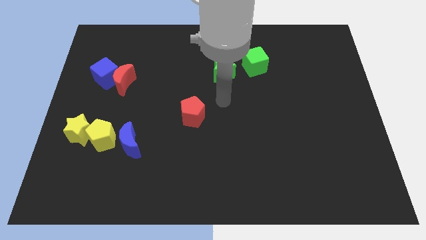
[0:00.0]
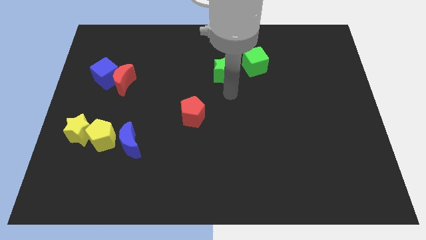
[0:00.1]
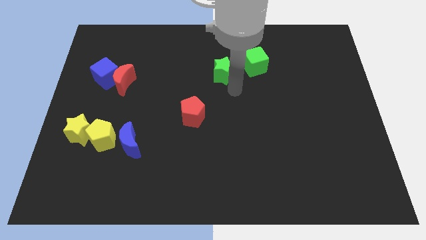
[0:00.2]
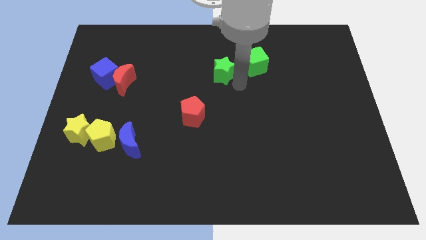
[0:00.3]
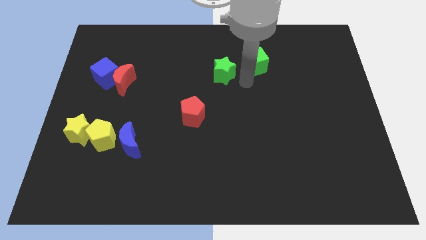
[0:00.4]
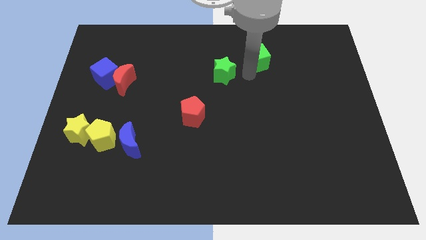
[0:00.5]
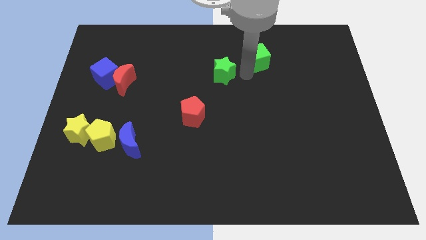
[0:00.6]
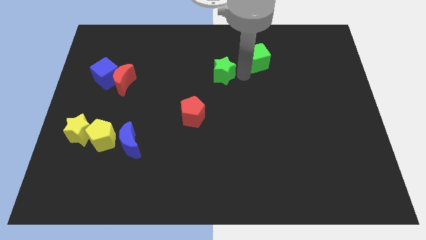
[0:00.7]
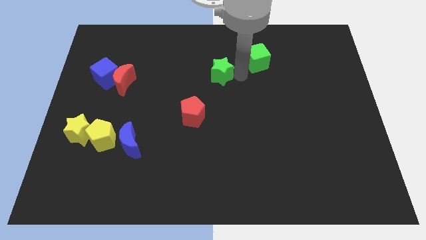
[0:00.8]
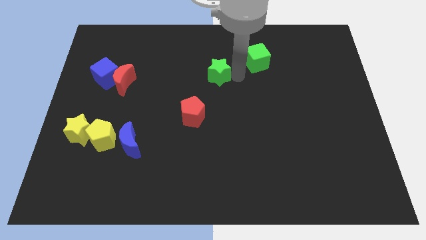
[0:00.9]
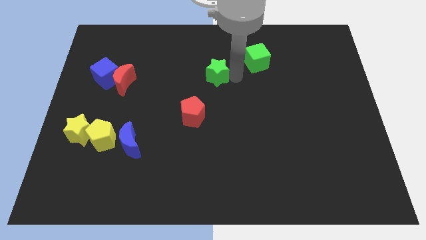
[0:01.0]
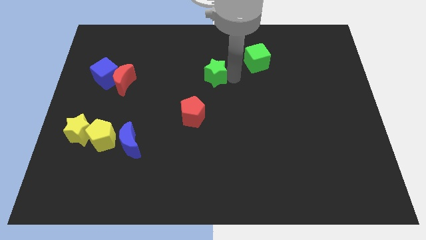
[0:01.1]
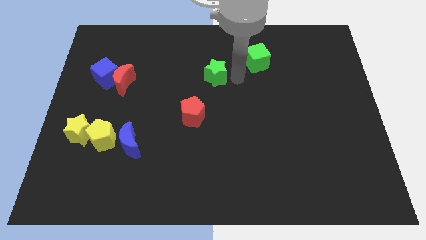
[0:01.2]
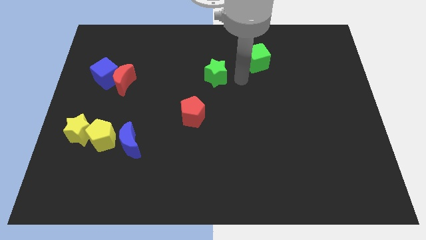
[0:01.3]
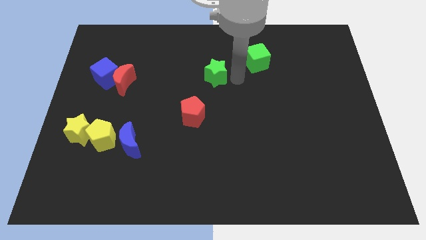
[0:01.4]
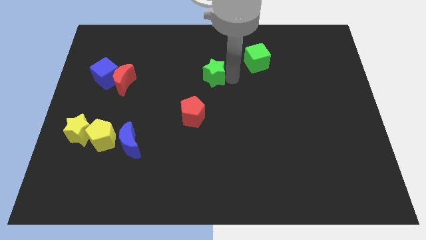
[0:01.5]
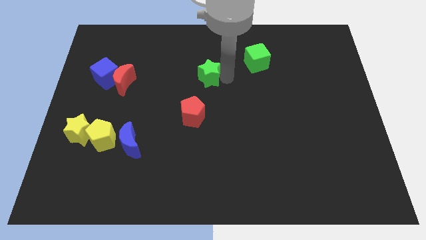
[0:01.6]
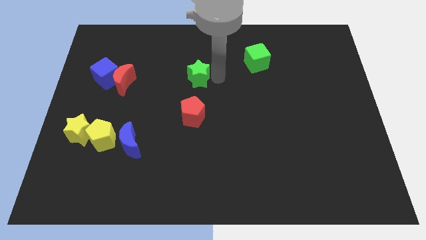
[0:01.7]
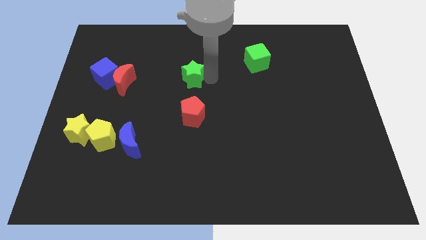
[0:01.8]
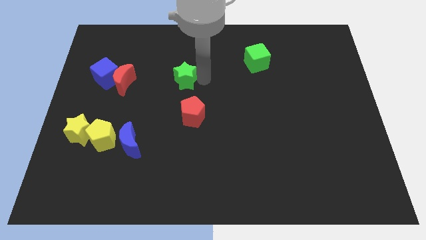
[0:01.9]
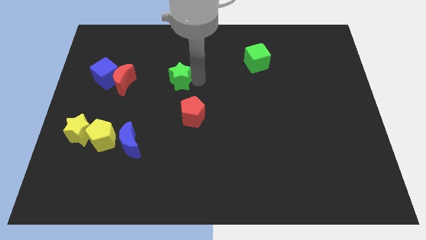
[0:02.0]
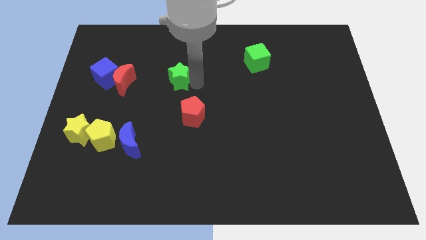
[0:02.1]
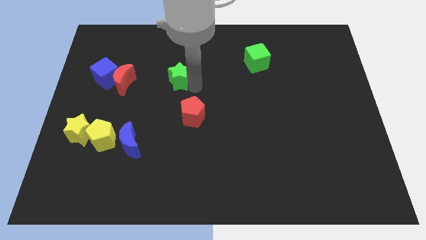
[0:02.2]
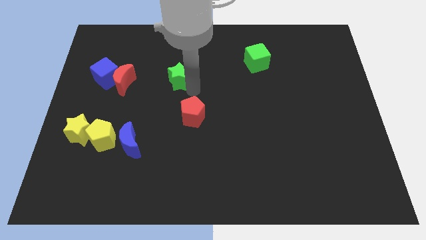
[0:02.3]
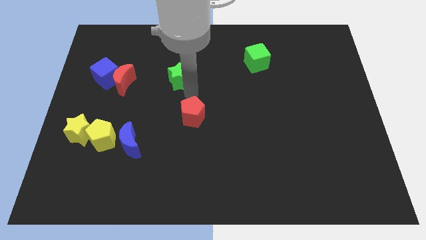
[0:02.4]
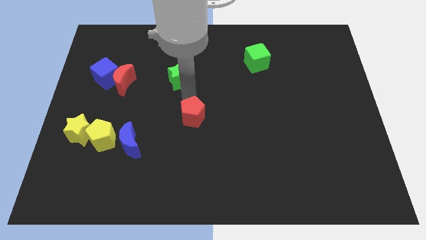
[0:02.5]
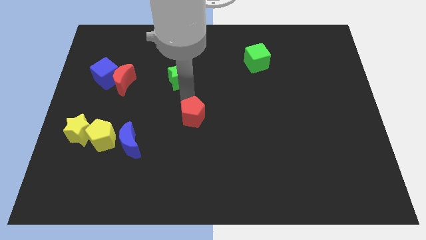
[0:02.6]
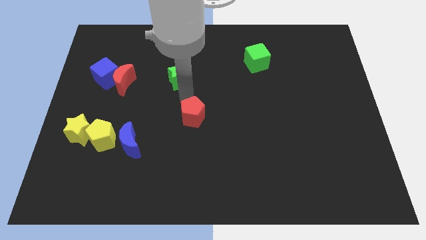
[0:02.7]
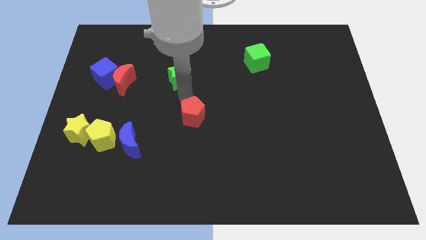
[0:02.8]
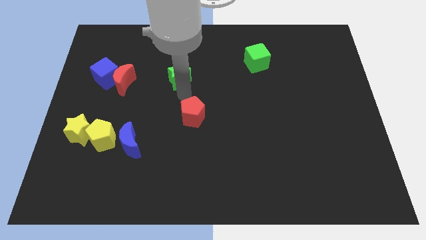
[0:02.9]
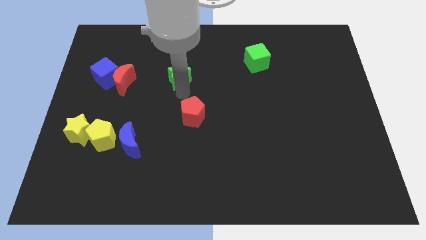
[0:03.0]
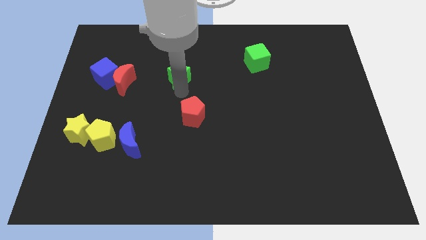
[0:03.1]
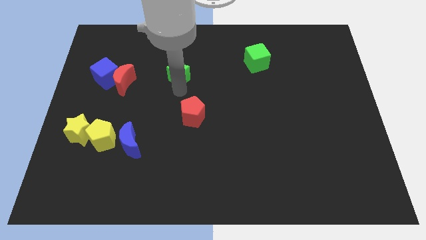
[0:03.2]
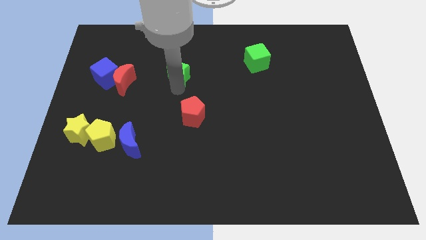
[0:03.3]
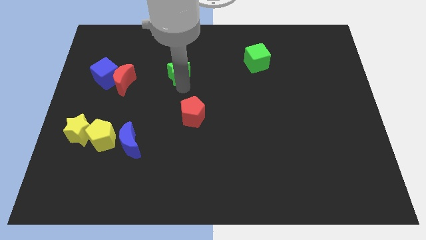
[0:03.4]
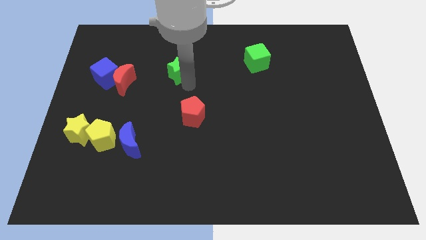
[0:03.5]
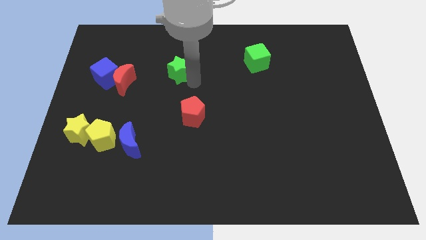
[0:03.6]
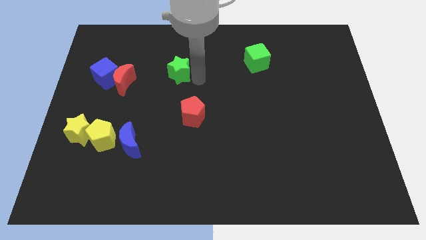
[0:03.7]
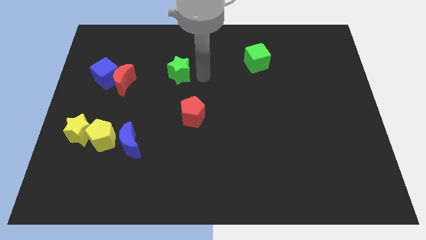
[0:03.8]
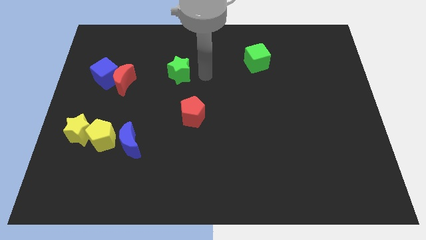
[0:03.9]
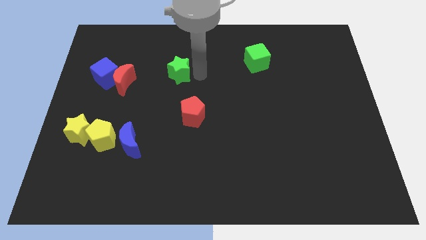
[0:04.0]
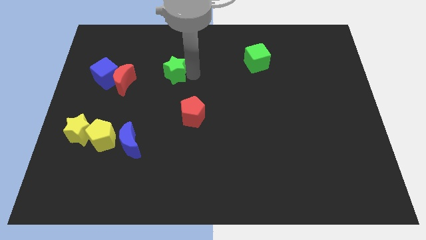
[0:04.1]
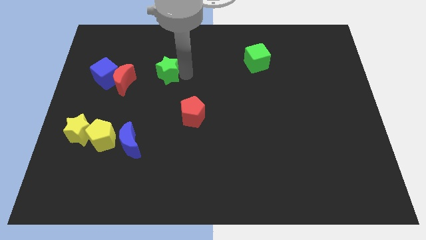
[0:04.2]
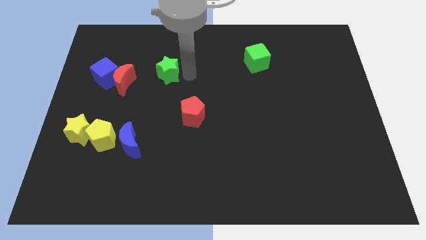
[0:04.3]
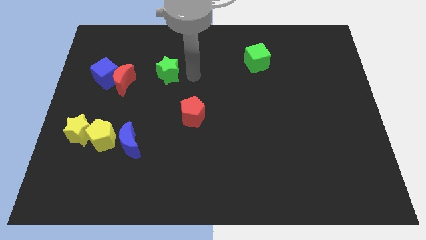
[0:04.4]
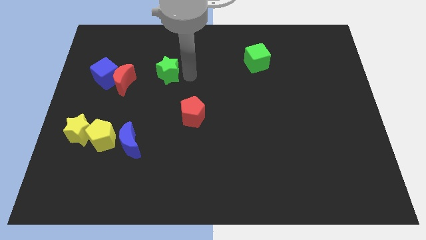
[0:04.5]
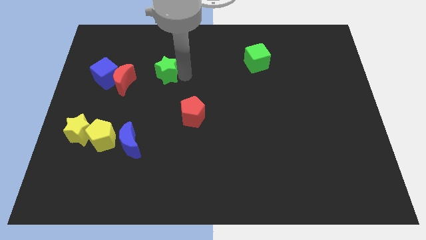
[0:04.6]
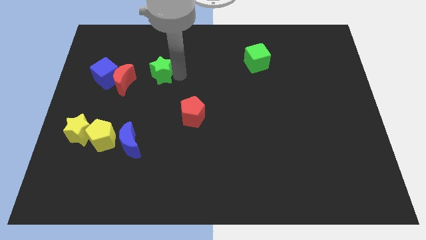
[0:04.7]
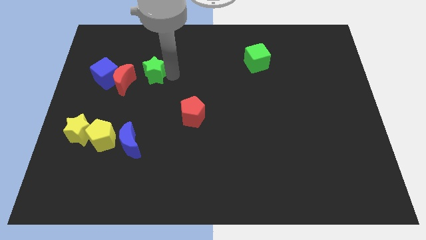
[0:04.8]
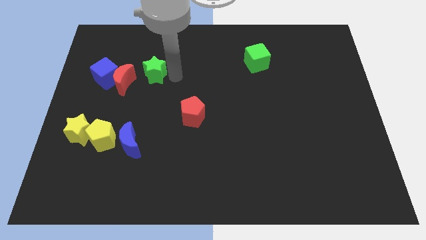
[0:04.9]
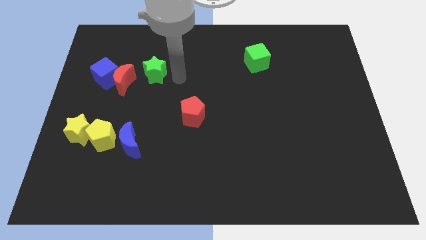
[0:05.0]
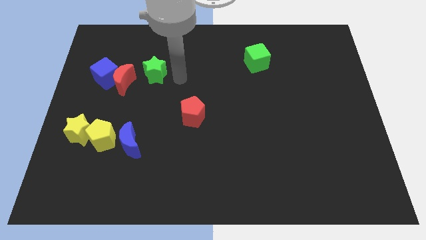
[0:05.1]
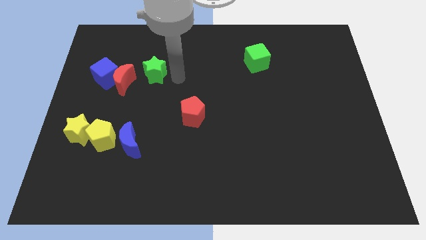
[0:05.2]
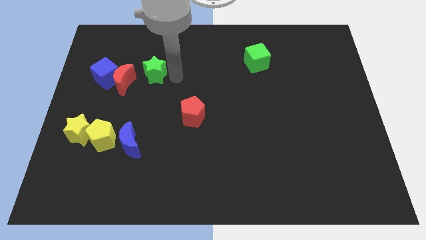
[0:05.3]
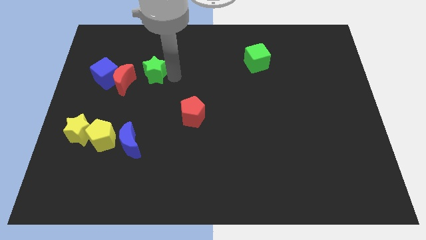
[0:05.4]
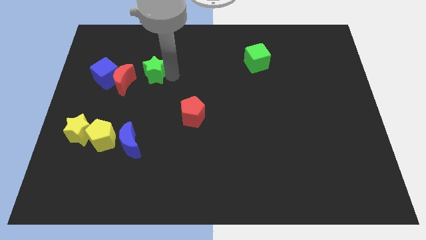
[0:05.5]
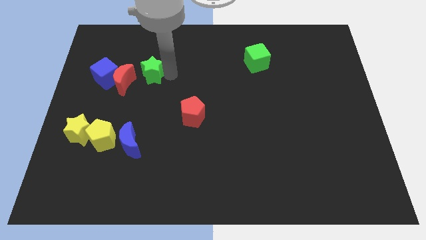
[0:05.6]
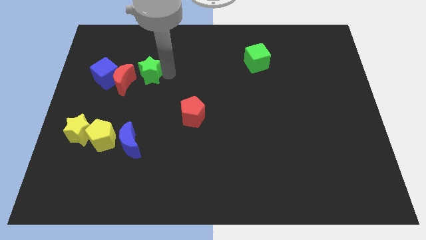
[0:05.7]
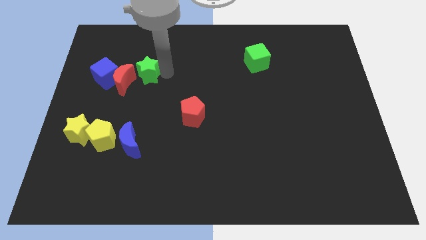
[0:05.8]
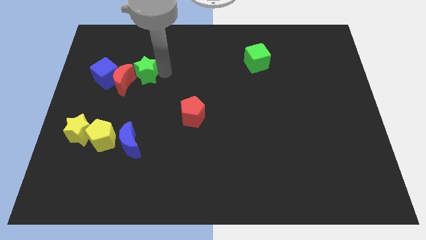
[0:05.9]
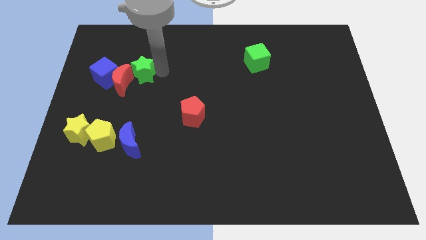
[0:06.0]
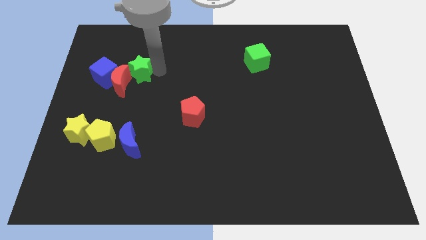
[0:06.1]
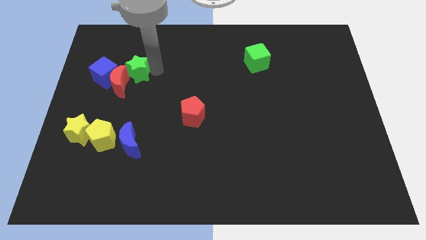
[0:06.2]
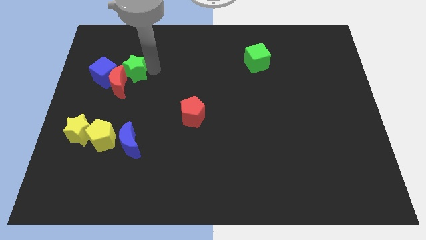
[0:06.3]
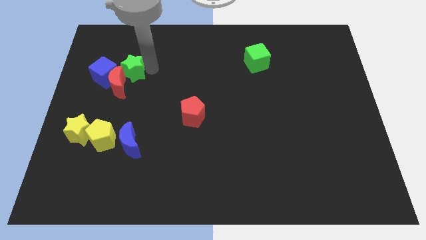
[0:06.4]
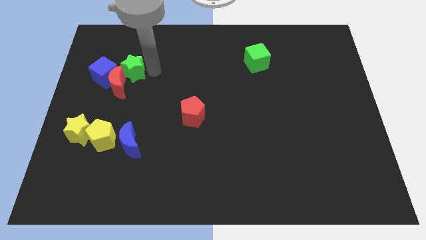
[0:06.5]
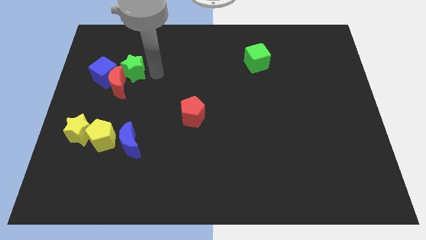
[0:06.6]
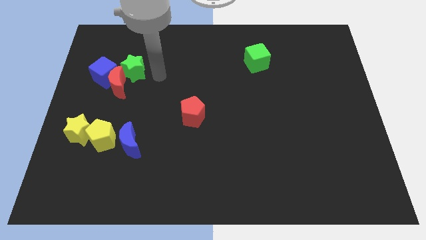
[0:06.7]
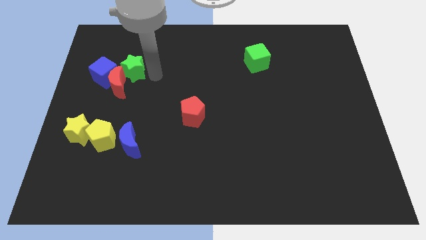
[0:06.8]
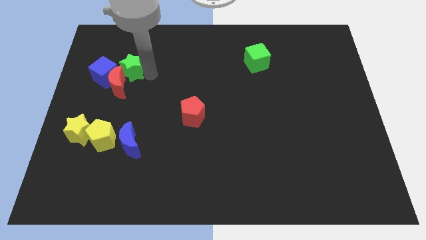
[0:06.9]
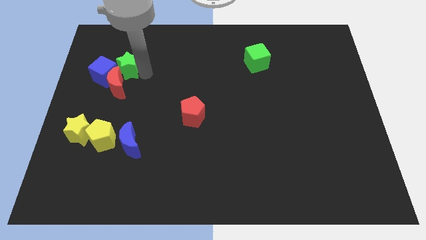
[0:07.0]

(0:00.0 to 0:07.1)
put the green star close to the blue cube
